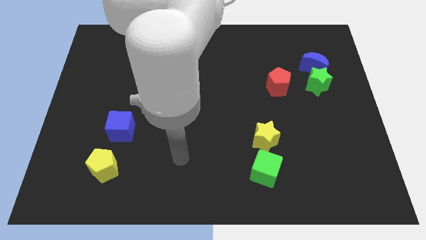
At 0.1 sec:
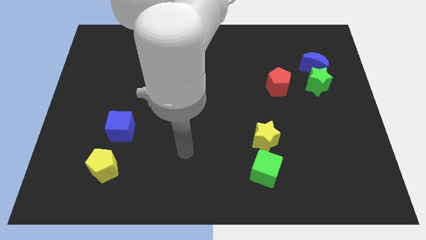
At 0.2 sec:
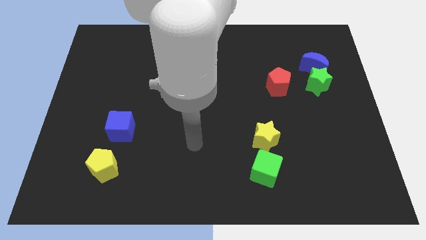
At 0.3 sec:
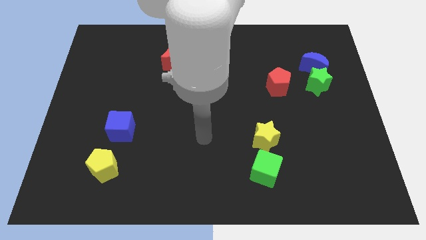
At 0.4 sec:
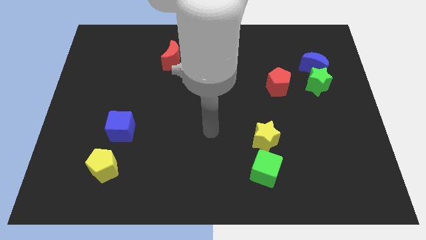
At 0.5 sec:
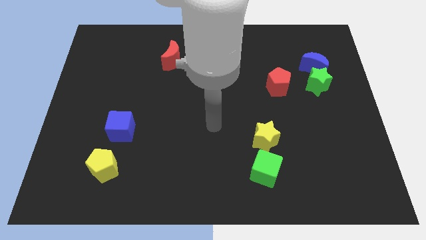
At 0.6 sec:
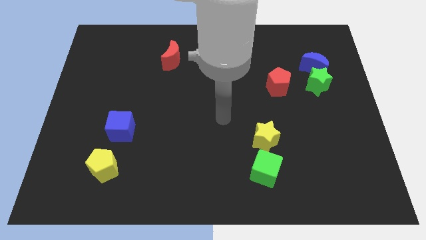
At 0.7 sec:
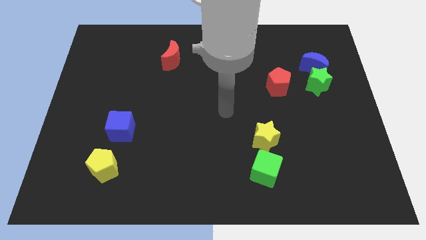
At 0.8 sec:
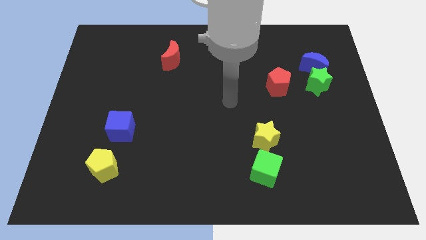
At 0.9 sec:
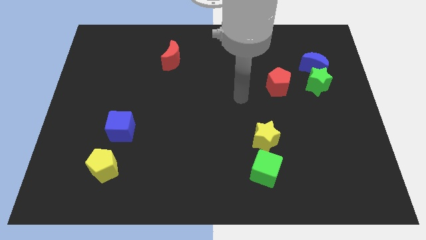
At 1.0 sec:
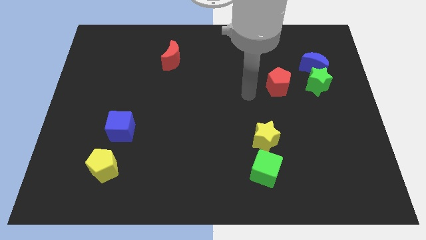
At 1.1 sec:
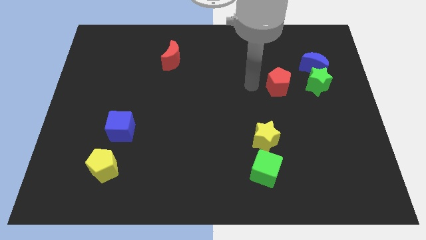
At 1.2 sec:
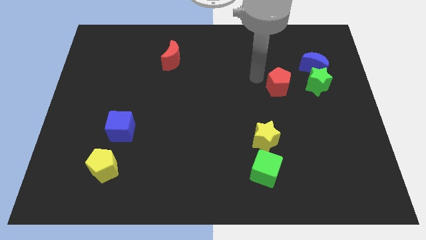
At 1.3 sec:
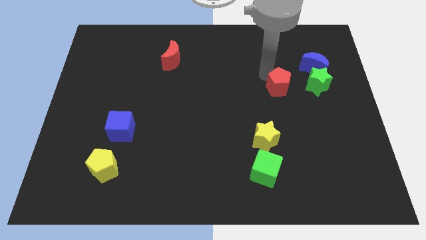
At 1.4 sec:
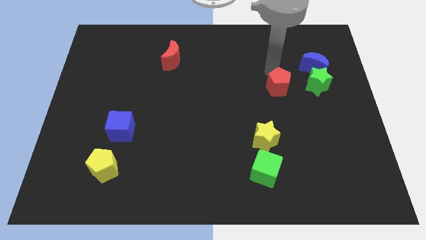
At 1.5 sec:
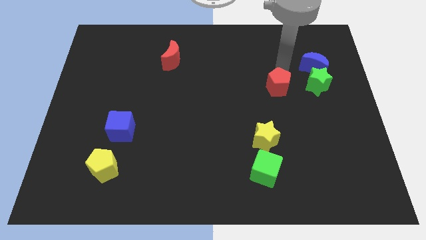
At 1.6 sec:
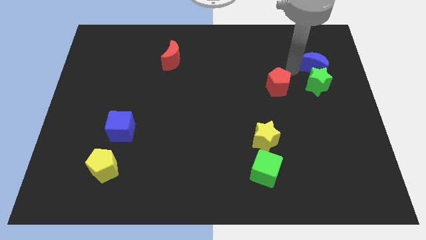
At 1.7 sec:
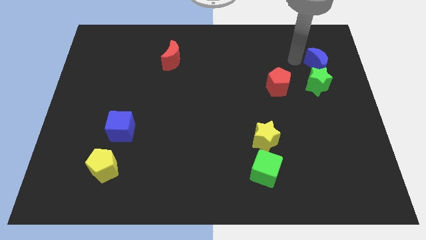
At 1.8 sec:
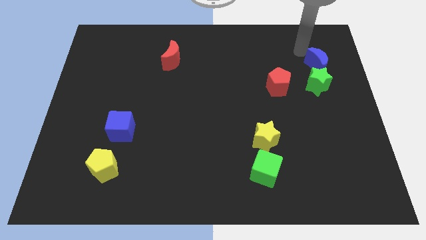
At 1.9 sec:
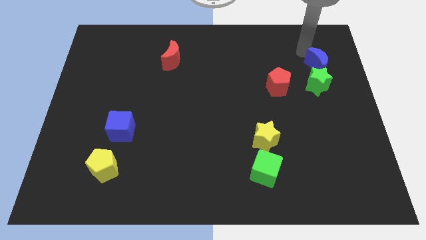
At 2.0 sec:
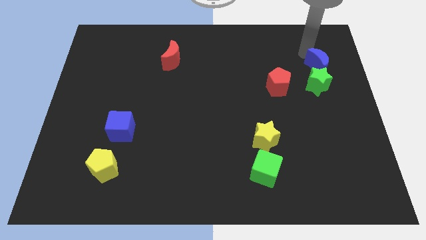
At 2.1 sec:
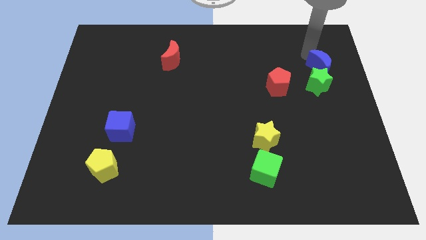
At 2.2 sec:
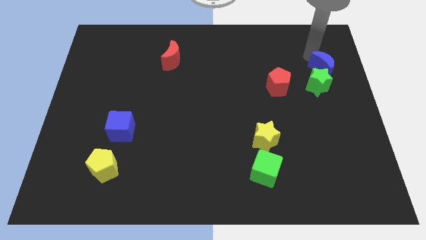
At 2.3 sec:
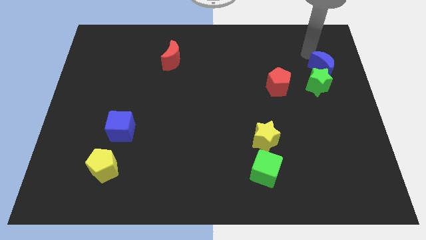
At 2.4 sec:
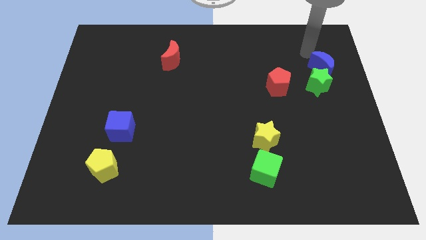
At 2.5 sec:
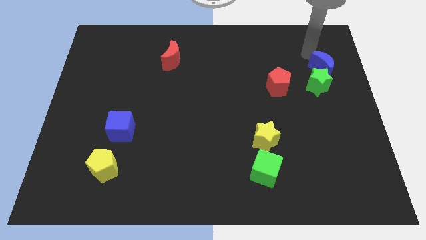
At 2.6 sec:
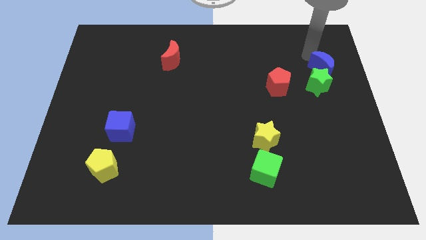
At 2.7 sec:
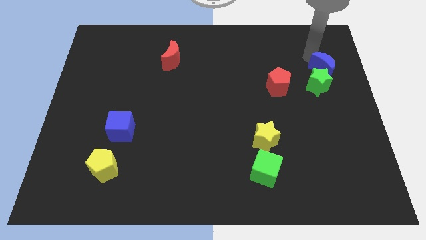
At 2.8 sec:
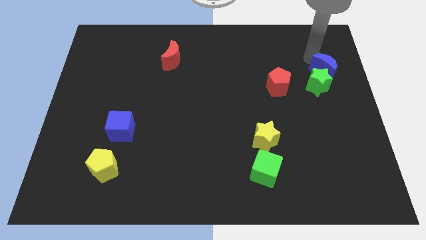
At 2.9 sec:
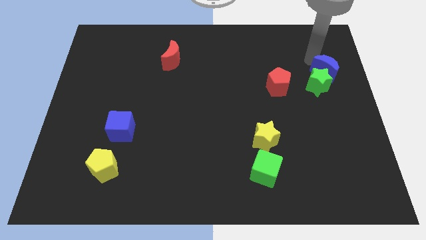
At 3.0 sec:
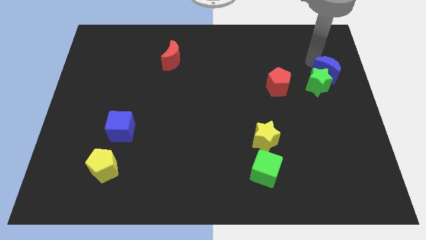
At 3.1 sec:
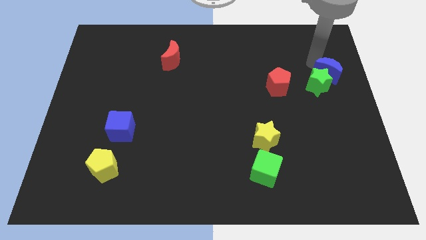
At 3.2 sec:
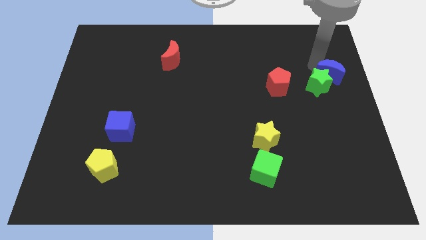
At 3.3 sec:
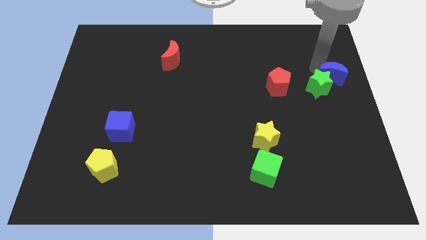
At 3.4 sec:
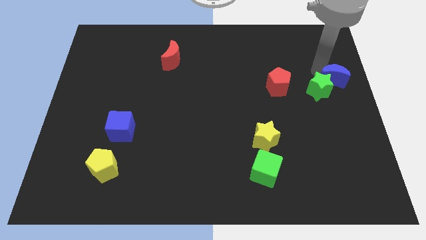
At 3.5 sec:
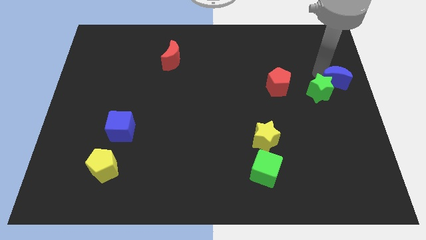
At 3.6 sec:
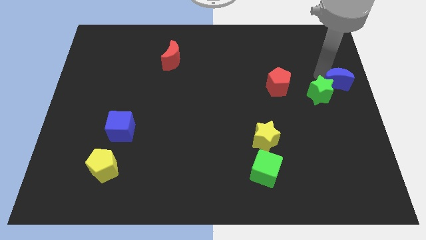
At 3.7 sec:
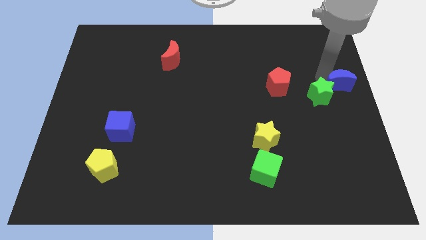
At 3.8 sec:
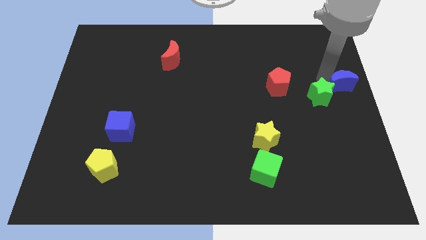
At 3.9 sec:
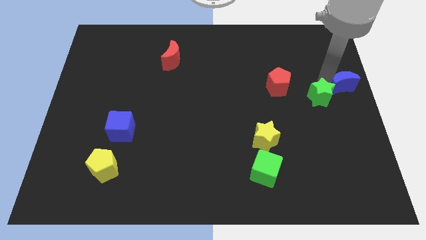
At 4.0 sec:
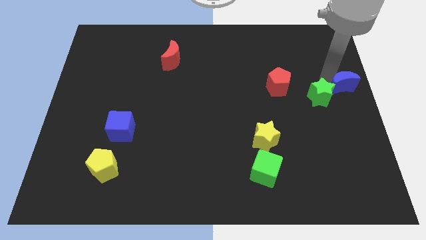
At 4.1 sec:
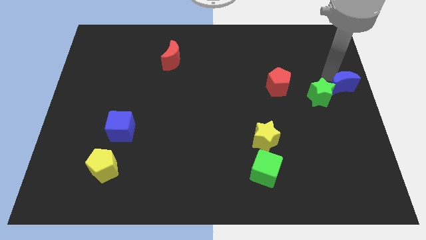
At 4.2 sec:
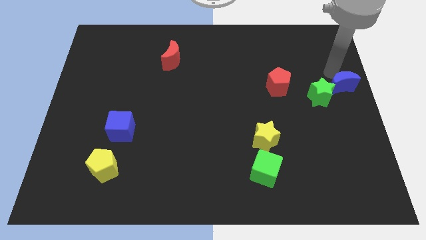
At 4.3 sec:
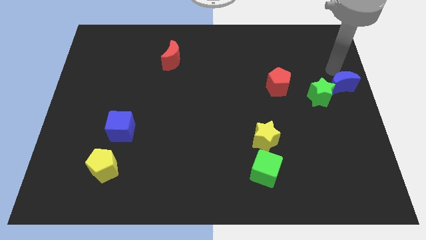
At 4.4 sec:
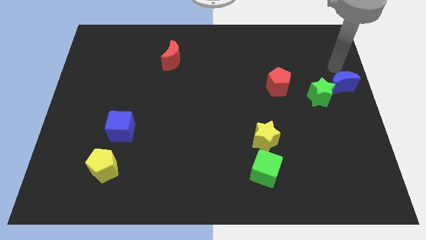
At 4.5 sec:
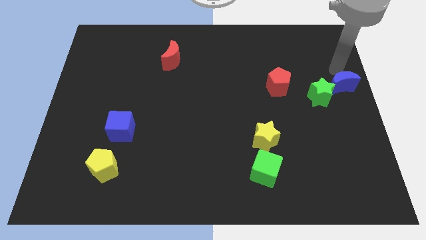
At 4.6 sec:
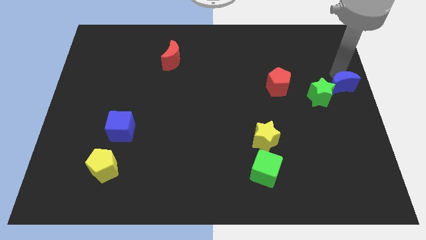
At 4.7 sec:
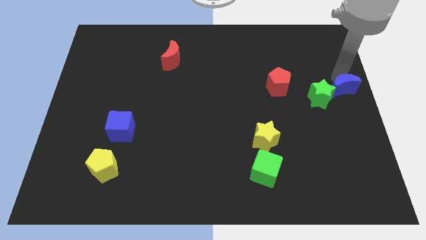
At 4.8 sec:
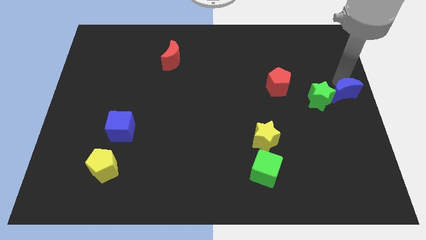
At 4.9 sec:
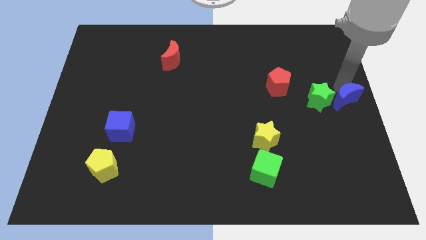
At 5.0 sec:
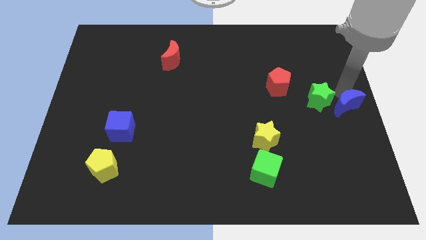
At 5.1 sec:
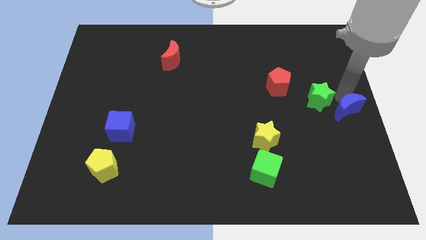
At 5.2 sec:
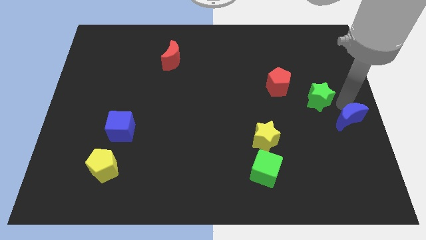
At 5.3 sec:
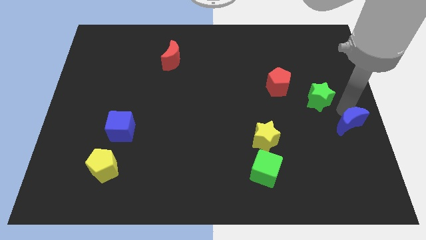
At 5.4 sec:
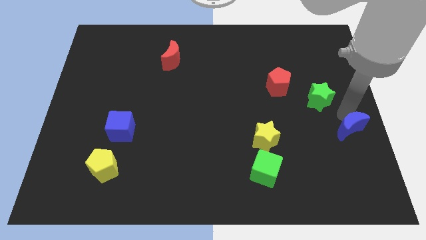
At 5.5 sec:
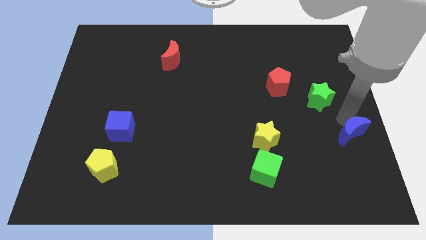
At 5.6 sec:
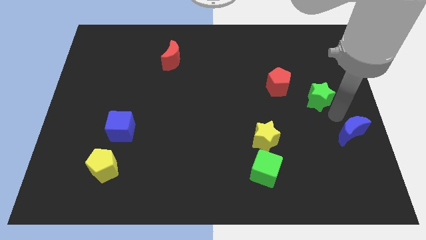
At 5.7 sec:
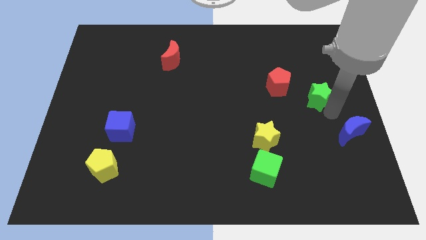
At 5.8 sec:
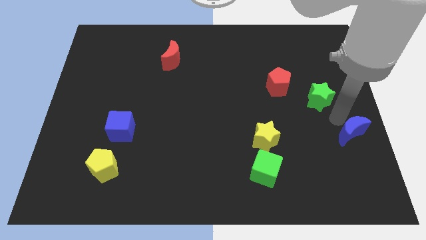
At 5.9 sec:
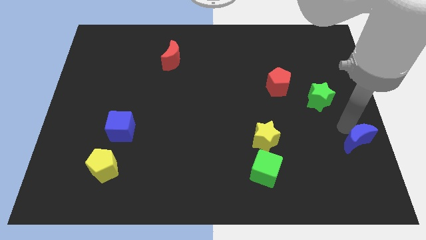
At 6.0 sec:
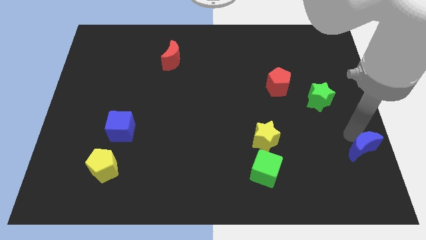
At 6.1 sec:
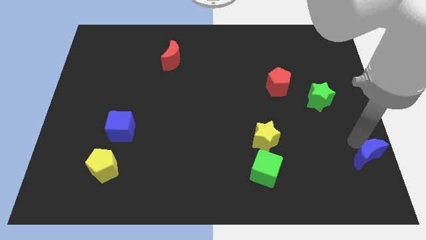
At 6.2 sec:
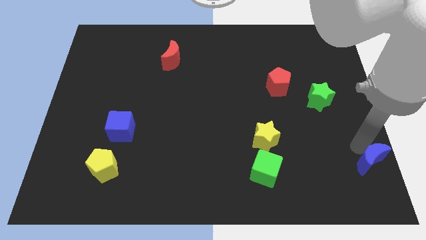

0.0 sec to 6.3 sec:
slide the blue moon to the lower right corner
